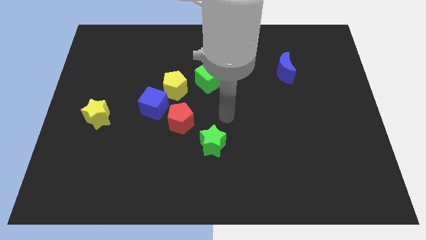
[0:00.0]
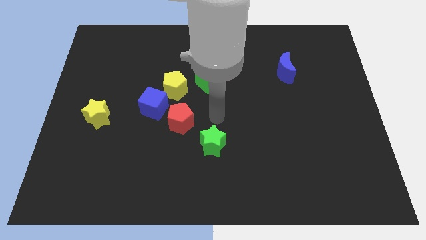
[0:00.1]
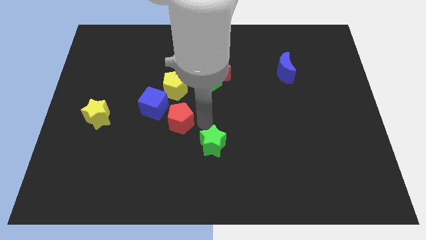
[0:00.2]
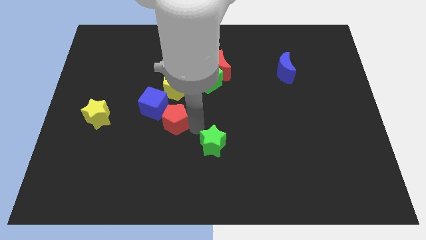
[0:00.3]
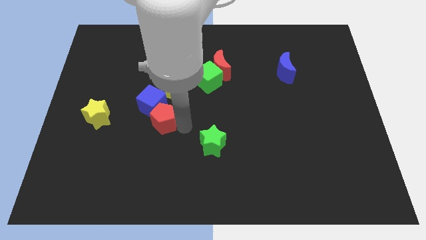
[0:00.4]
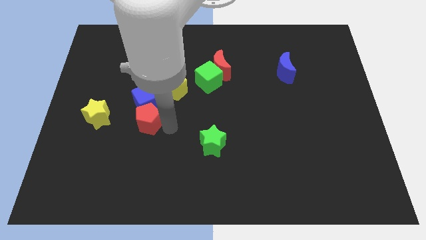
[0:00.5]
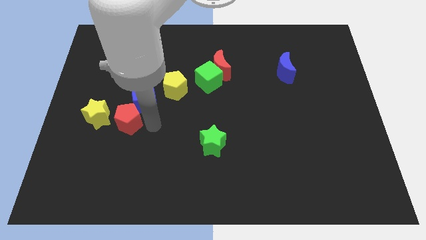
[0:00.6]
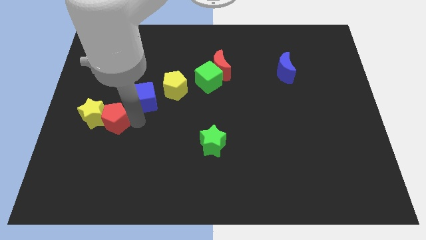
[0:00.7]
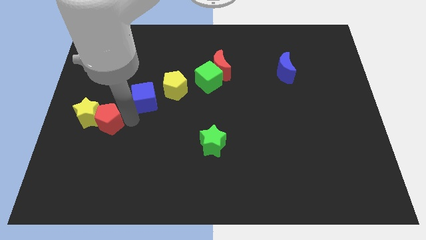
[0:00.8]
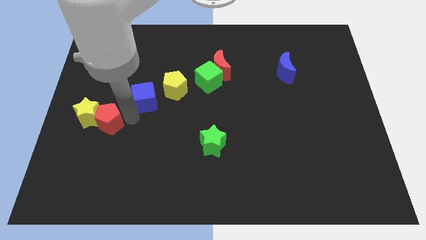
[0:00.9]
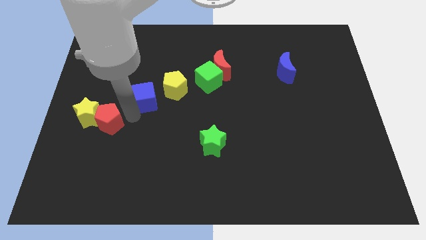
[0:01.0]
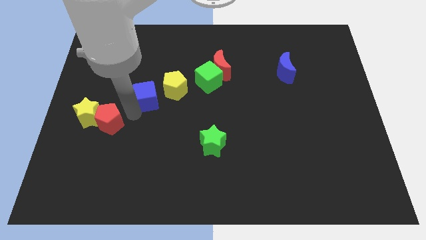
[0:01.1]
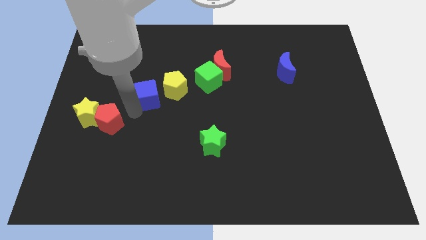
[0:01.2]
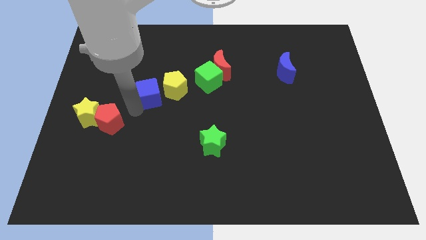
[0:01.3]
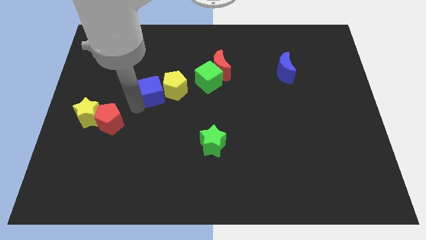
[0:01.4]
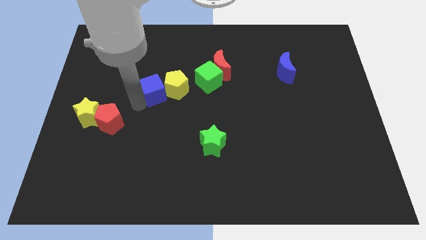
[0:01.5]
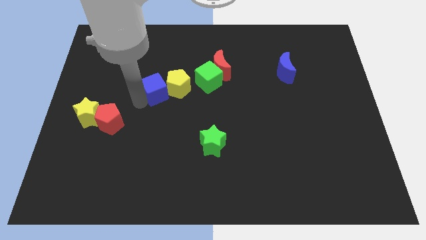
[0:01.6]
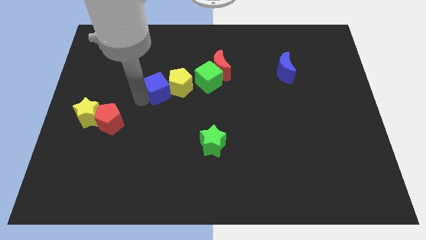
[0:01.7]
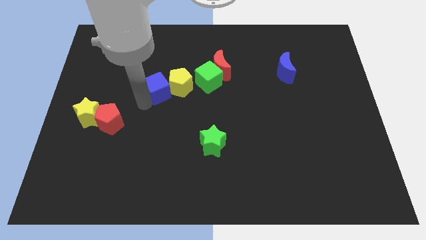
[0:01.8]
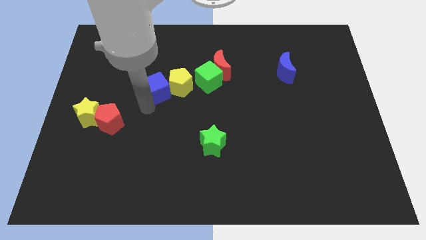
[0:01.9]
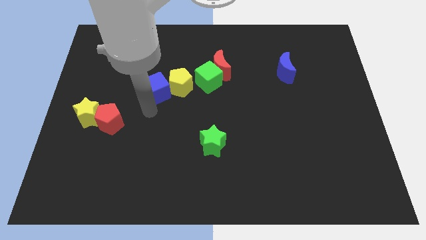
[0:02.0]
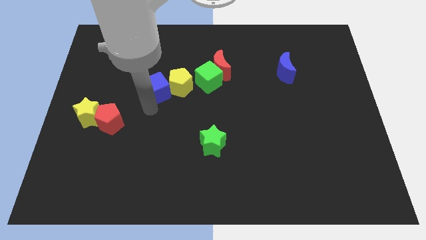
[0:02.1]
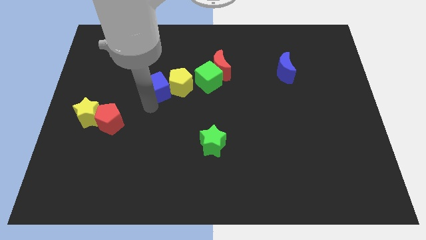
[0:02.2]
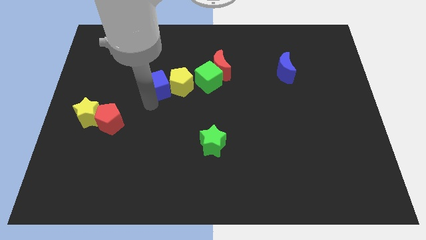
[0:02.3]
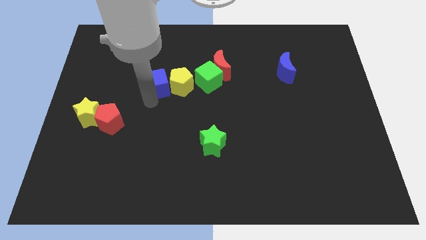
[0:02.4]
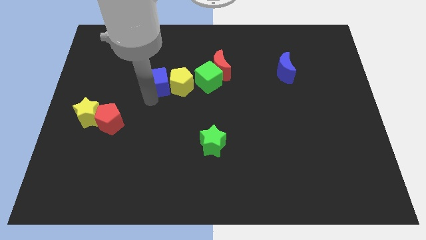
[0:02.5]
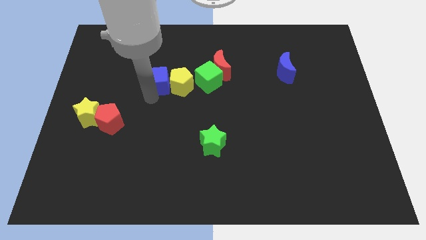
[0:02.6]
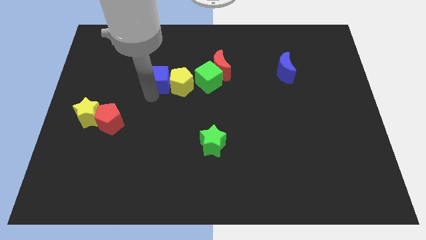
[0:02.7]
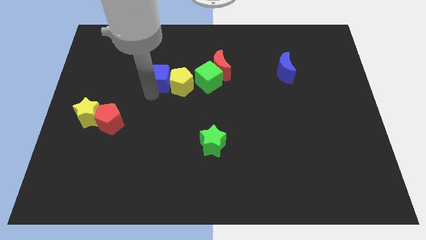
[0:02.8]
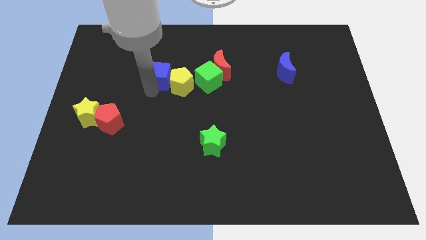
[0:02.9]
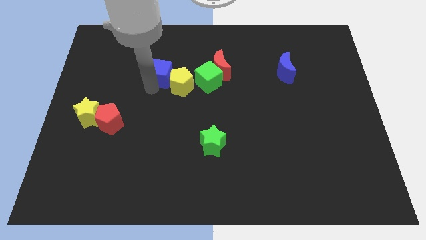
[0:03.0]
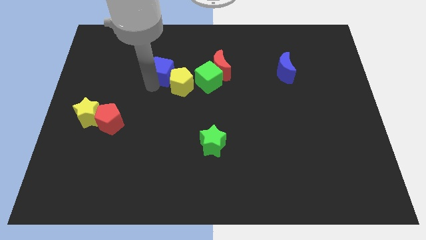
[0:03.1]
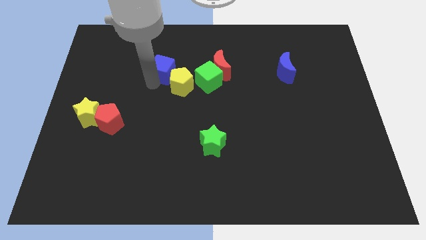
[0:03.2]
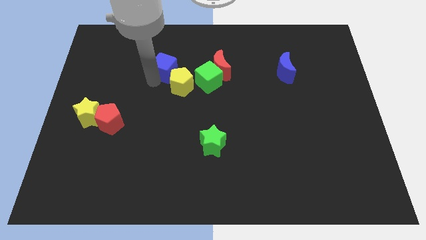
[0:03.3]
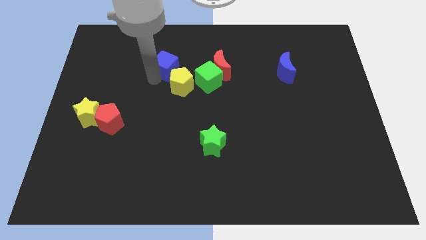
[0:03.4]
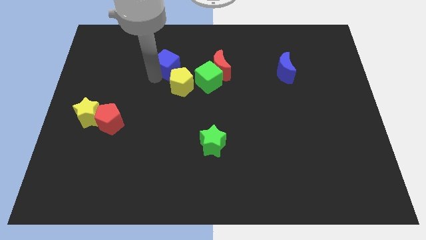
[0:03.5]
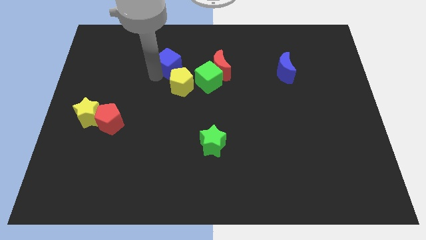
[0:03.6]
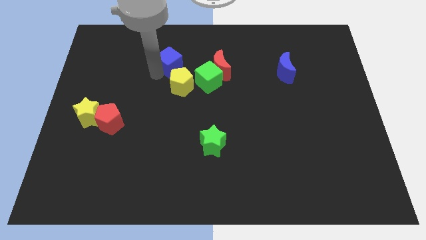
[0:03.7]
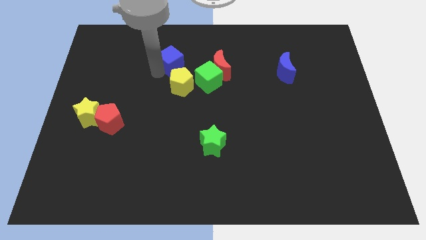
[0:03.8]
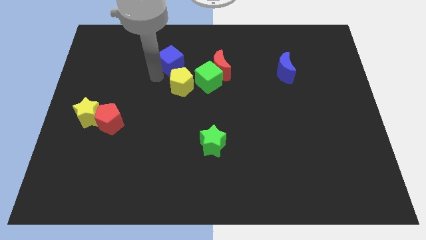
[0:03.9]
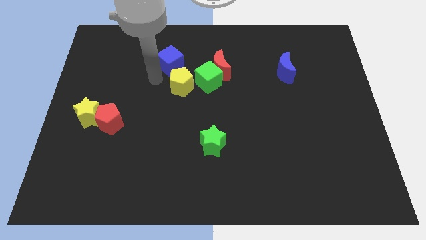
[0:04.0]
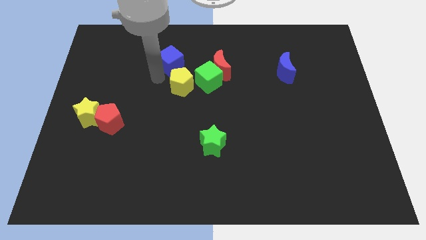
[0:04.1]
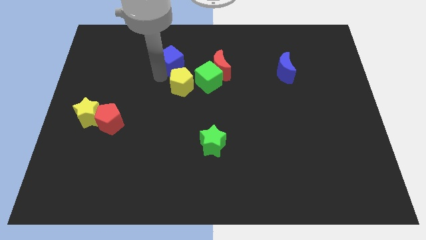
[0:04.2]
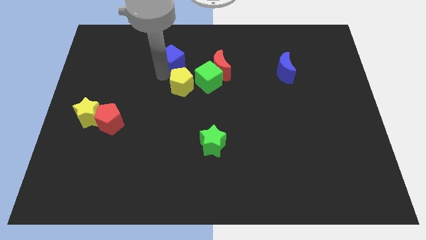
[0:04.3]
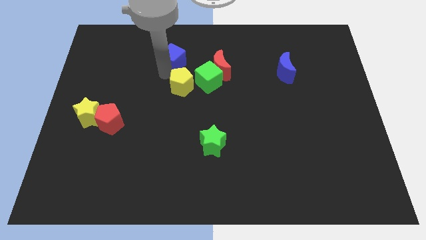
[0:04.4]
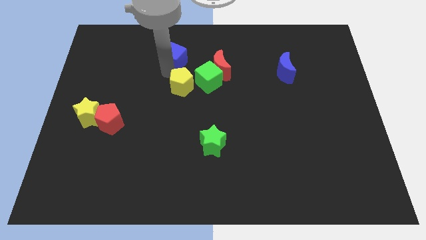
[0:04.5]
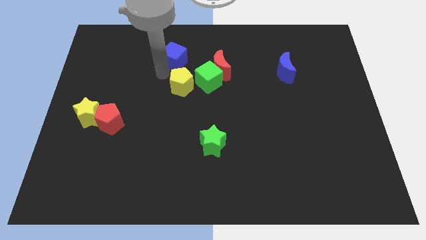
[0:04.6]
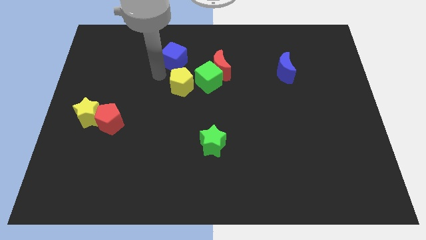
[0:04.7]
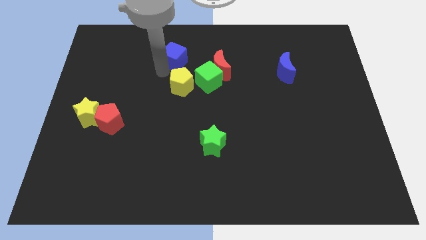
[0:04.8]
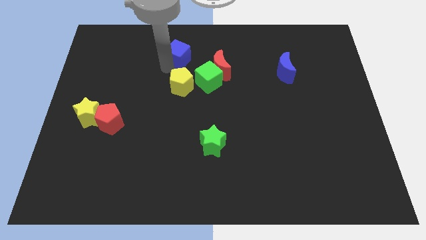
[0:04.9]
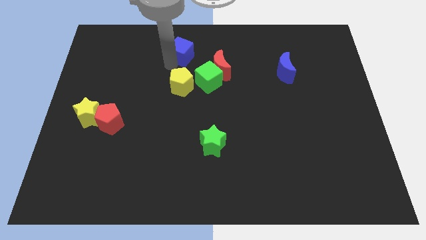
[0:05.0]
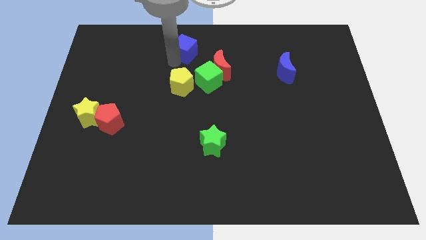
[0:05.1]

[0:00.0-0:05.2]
put the blue cube to the towards your base
